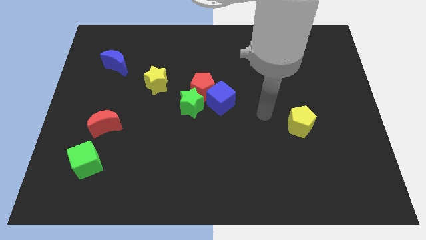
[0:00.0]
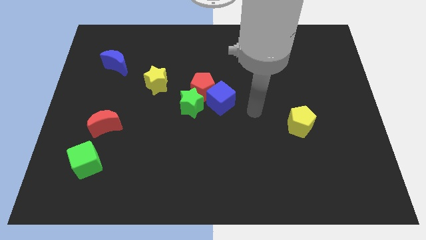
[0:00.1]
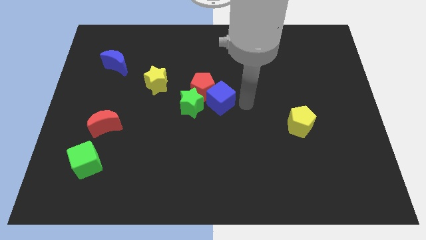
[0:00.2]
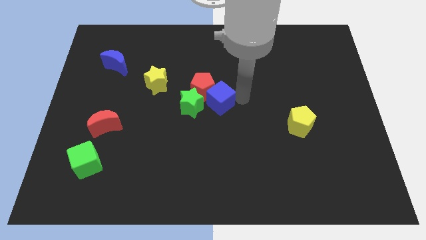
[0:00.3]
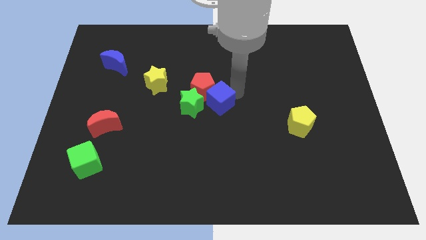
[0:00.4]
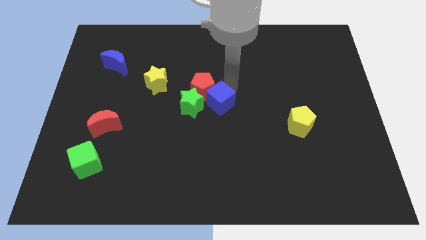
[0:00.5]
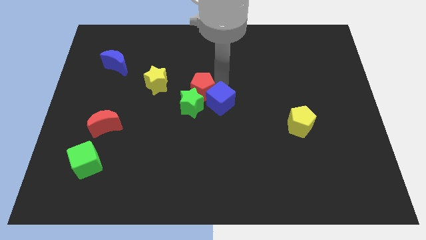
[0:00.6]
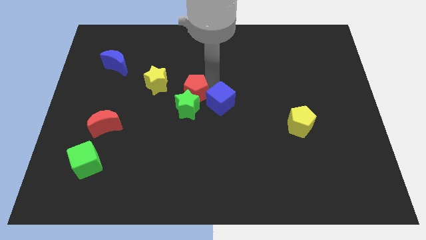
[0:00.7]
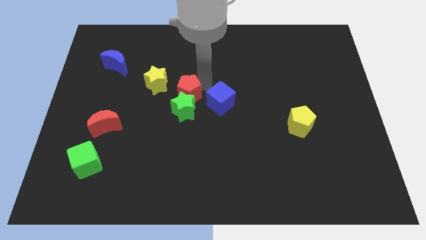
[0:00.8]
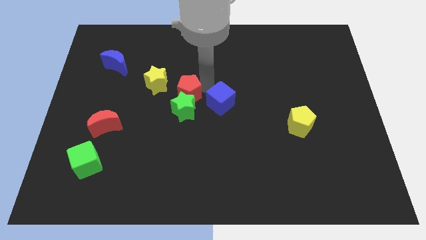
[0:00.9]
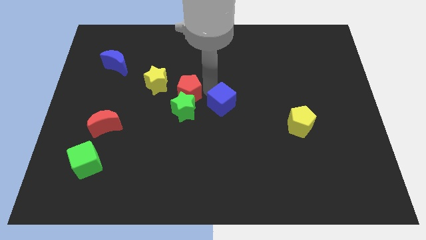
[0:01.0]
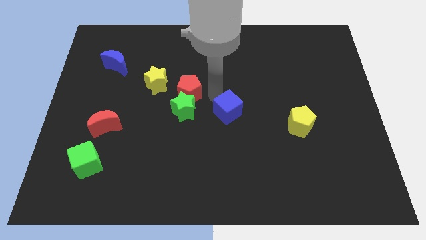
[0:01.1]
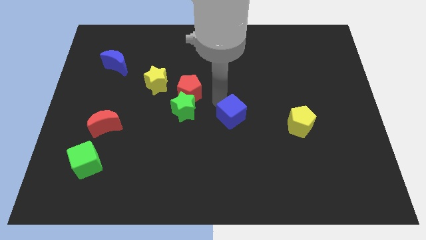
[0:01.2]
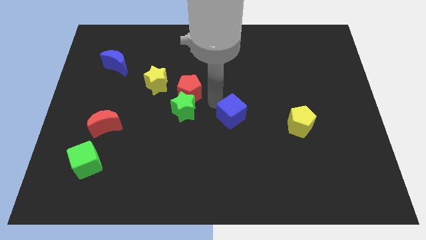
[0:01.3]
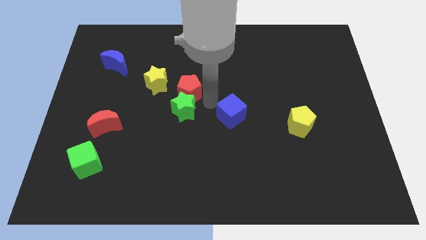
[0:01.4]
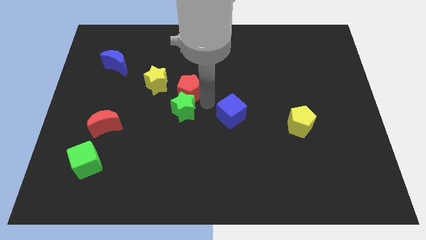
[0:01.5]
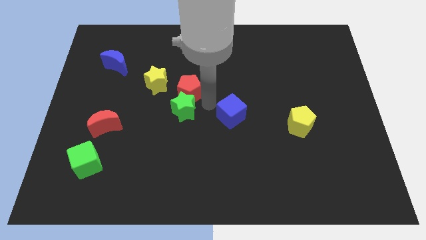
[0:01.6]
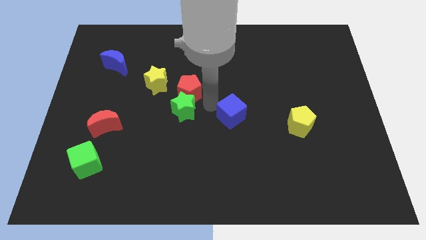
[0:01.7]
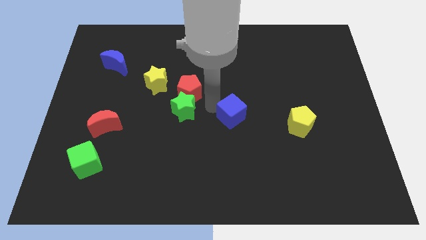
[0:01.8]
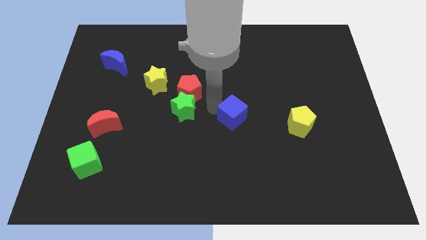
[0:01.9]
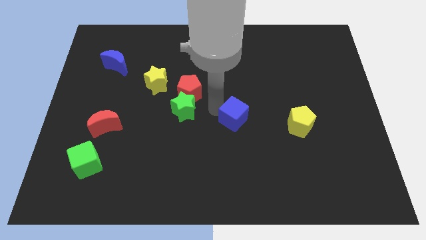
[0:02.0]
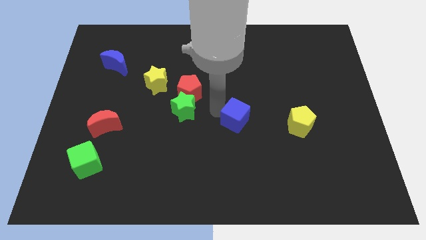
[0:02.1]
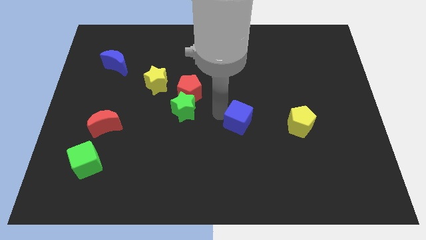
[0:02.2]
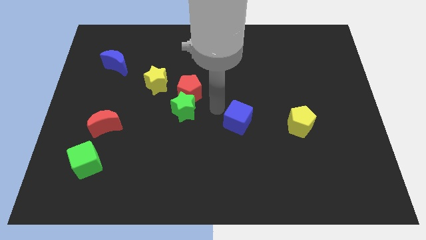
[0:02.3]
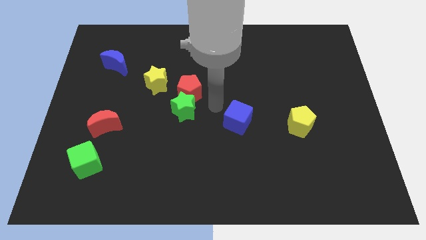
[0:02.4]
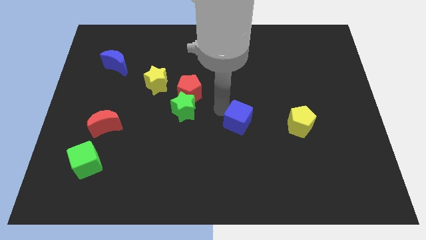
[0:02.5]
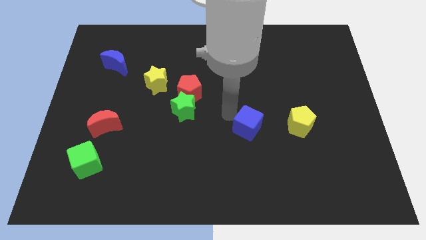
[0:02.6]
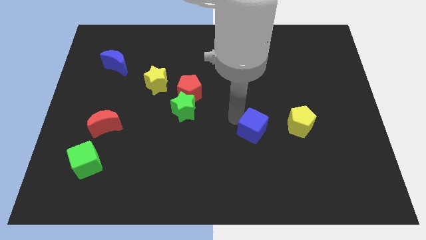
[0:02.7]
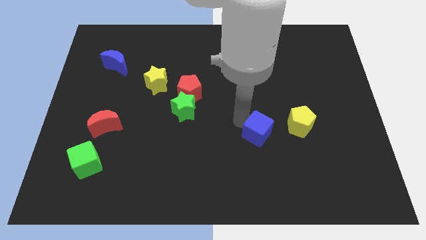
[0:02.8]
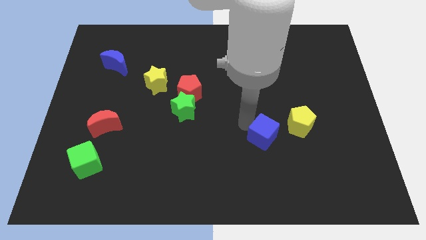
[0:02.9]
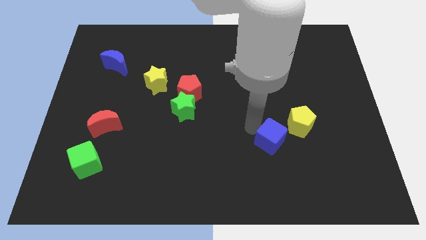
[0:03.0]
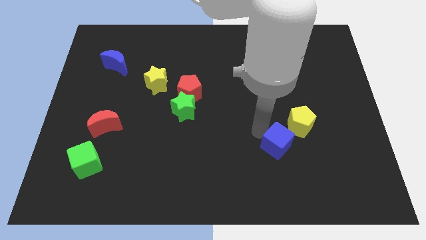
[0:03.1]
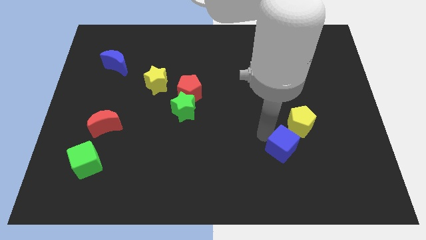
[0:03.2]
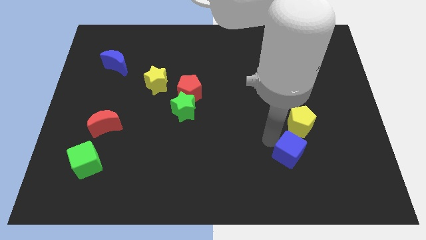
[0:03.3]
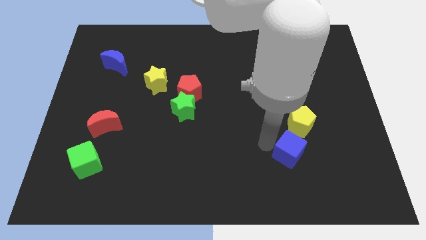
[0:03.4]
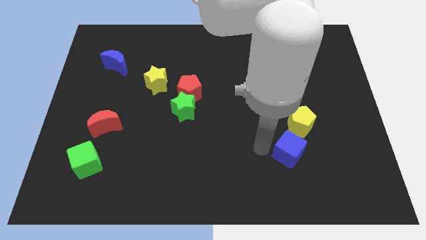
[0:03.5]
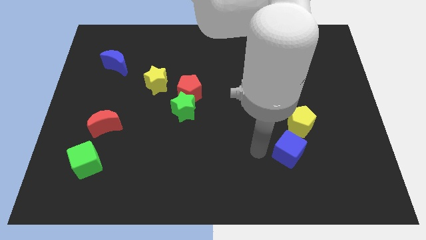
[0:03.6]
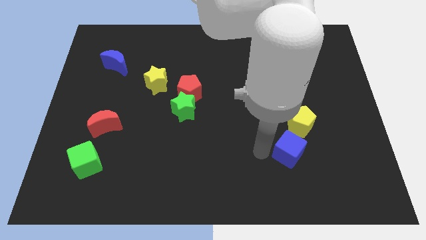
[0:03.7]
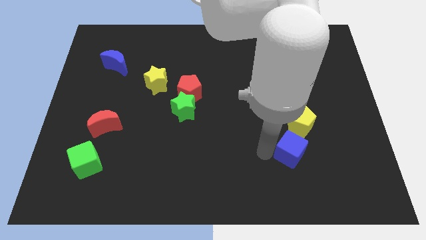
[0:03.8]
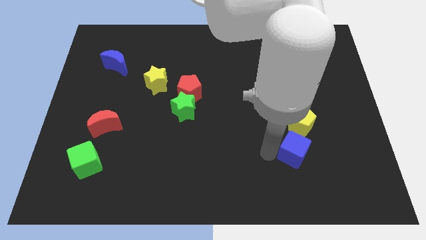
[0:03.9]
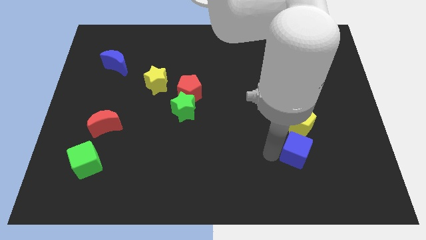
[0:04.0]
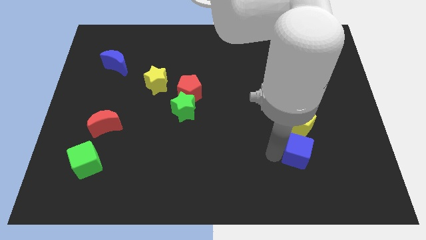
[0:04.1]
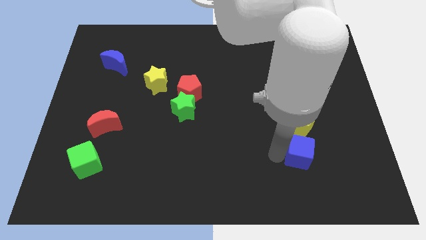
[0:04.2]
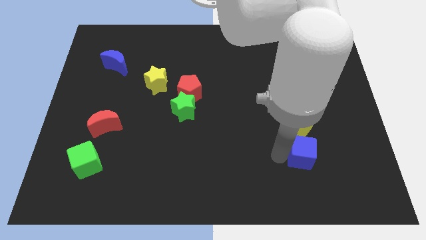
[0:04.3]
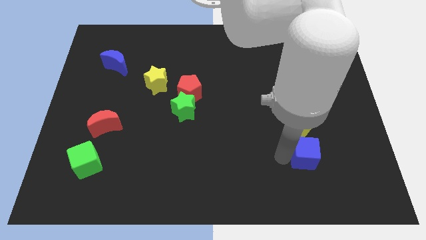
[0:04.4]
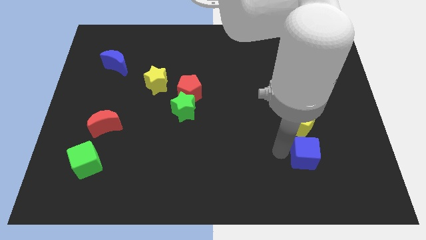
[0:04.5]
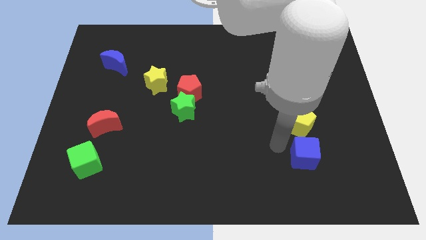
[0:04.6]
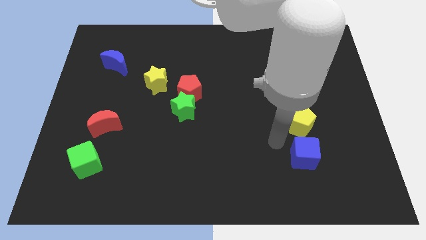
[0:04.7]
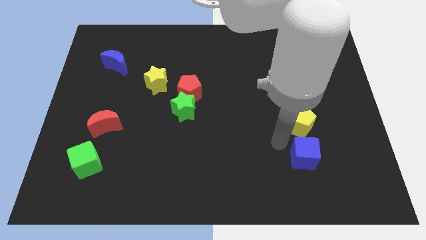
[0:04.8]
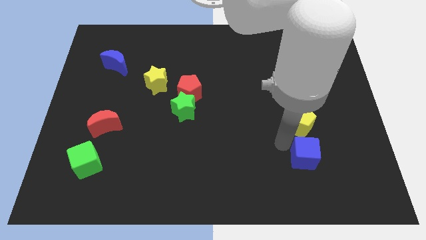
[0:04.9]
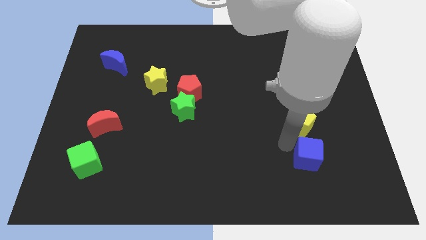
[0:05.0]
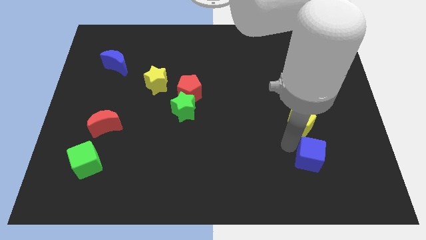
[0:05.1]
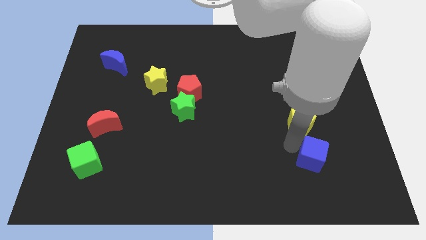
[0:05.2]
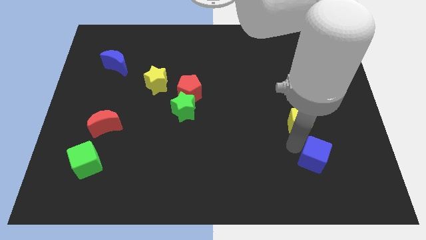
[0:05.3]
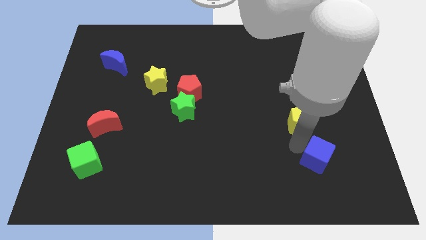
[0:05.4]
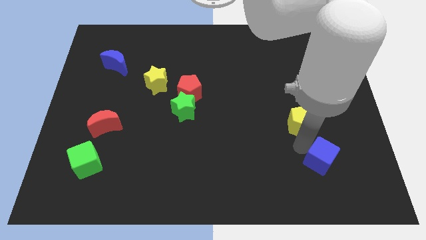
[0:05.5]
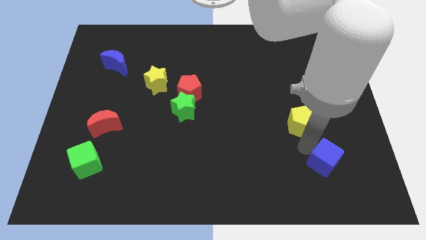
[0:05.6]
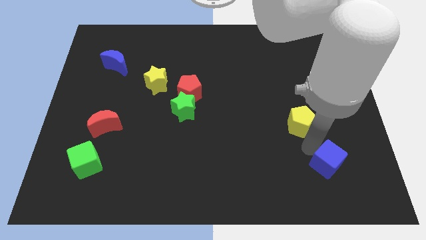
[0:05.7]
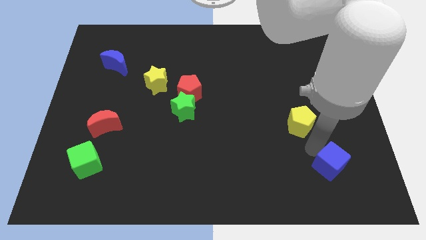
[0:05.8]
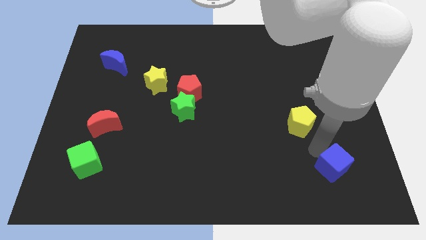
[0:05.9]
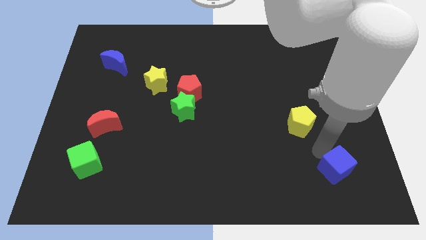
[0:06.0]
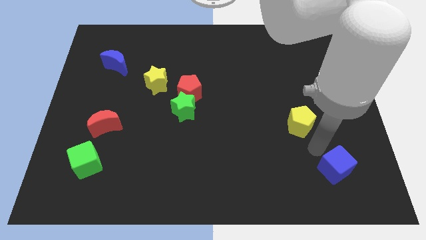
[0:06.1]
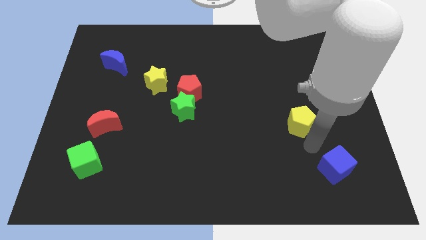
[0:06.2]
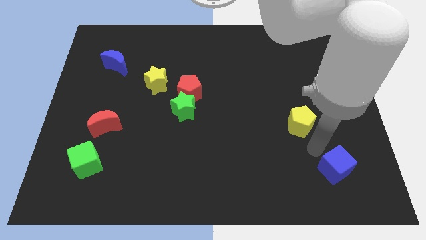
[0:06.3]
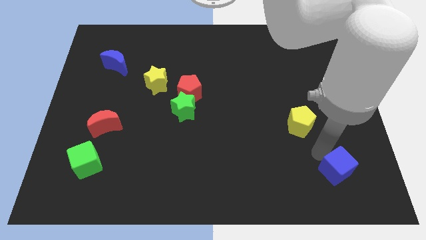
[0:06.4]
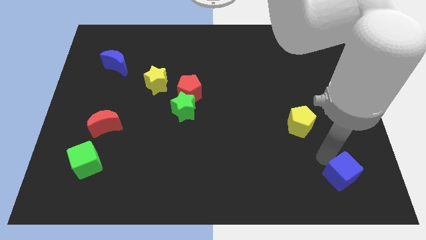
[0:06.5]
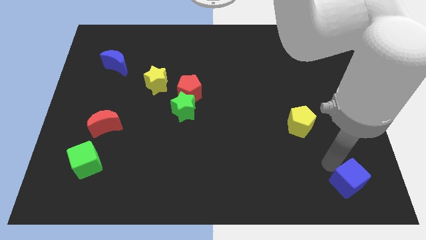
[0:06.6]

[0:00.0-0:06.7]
put the blue cube to the bottom right of the board
